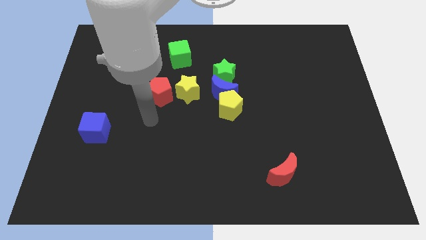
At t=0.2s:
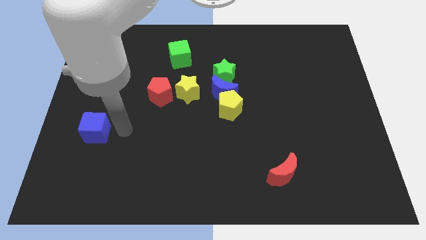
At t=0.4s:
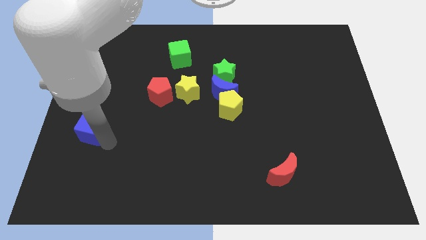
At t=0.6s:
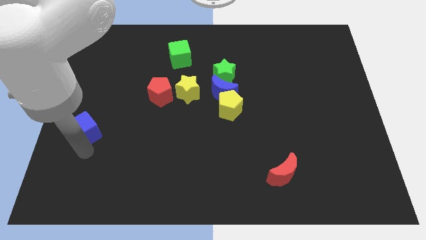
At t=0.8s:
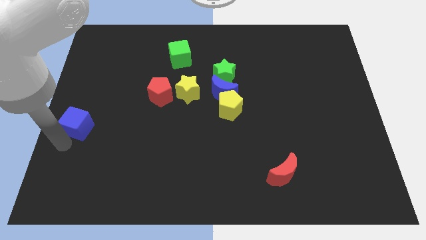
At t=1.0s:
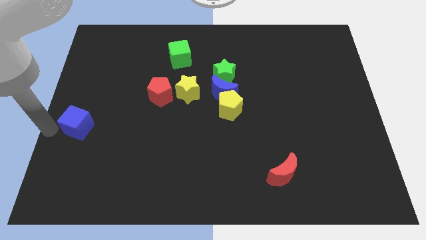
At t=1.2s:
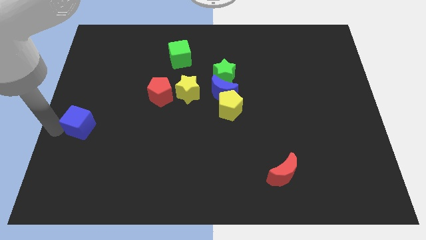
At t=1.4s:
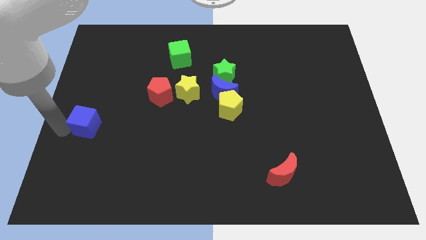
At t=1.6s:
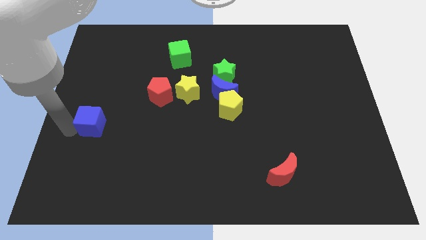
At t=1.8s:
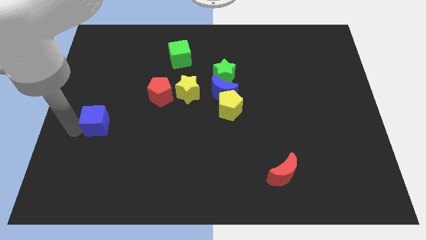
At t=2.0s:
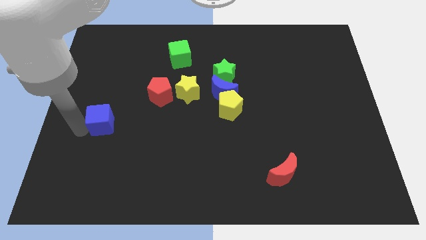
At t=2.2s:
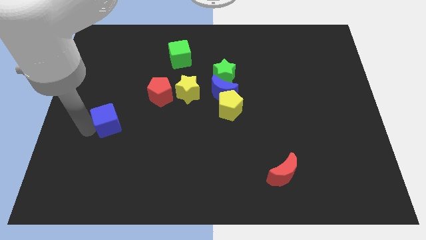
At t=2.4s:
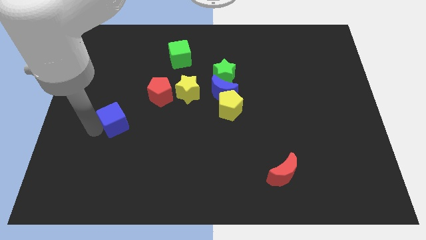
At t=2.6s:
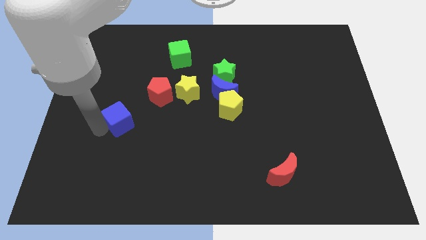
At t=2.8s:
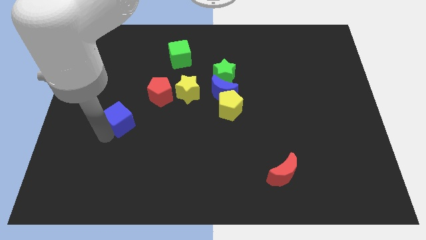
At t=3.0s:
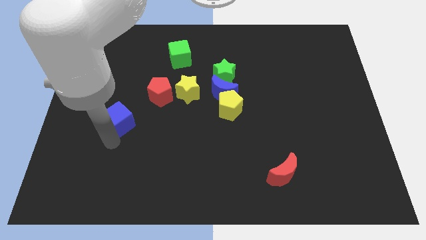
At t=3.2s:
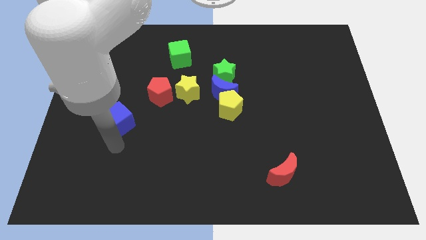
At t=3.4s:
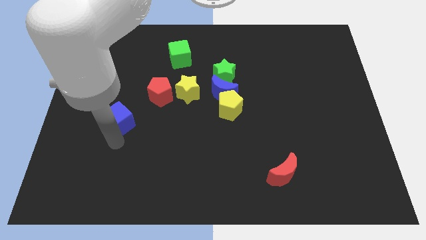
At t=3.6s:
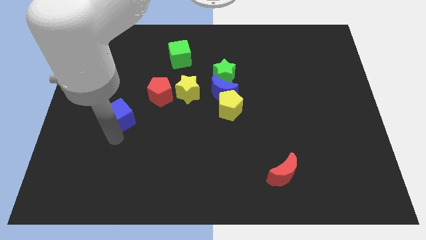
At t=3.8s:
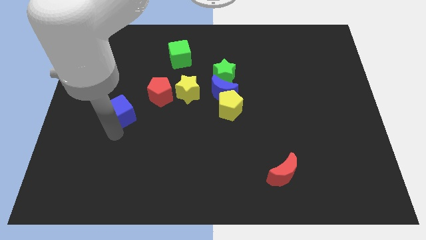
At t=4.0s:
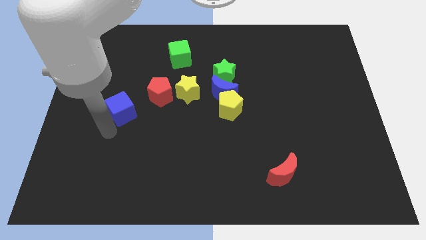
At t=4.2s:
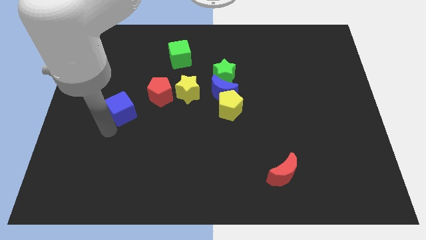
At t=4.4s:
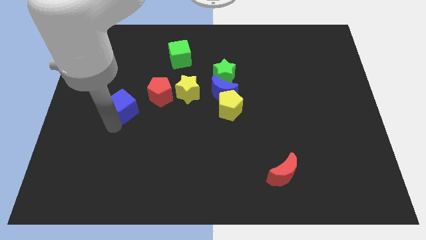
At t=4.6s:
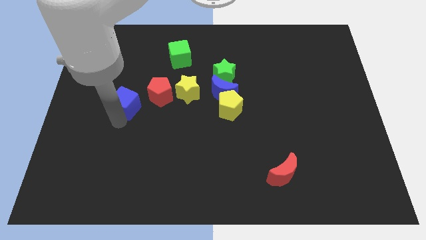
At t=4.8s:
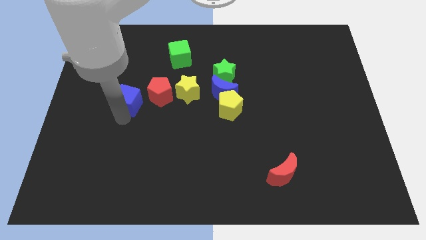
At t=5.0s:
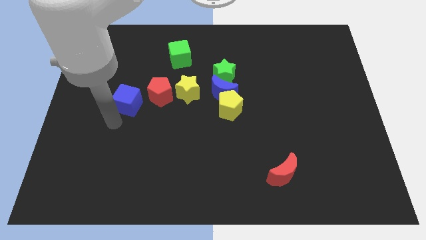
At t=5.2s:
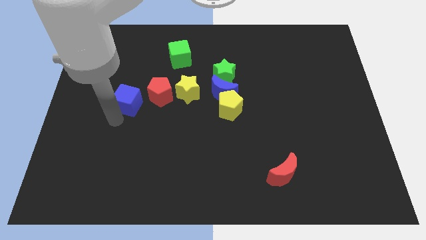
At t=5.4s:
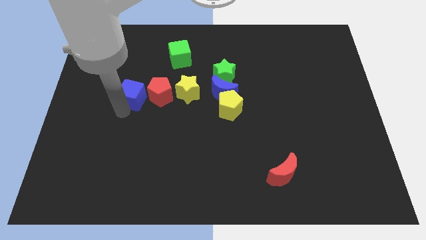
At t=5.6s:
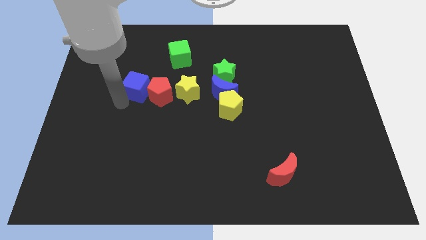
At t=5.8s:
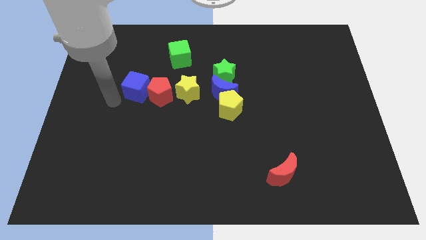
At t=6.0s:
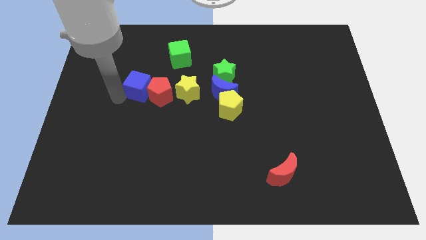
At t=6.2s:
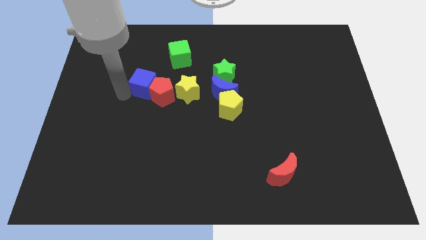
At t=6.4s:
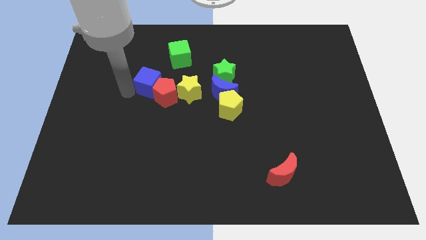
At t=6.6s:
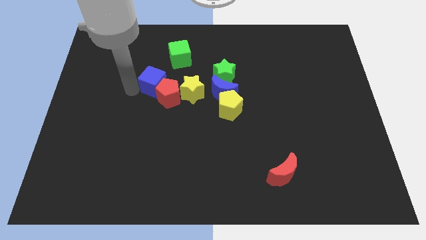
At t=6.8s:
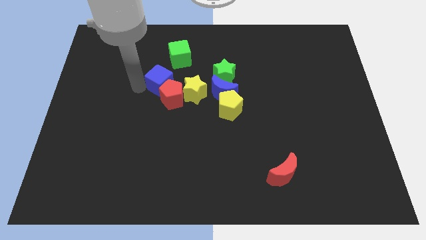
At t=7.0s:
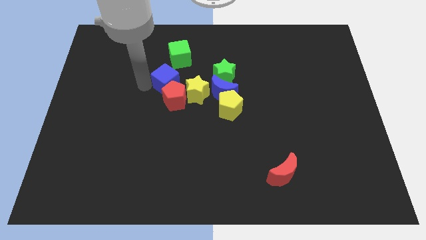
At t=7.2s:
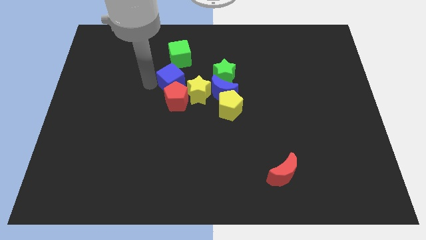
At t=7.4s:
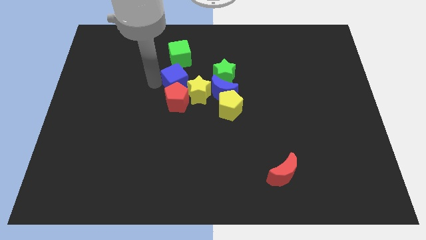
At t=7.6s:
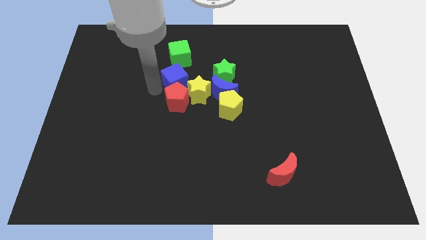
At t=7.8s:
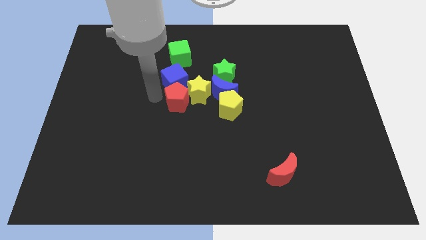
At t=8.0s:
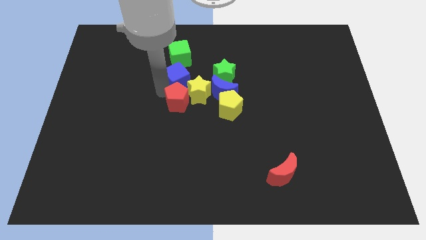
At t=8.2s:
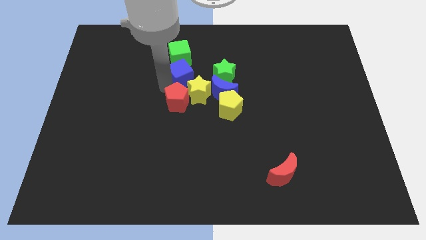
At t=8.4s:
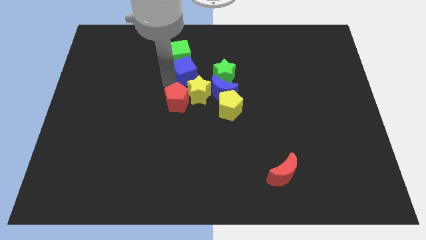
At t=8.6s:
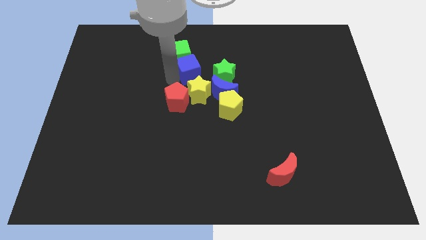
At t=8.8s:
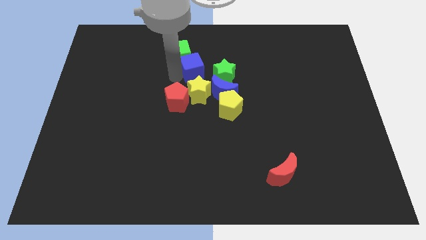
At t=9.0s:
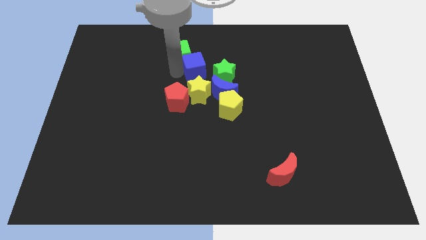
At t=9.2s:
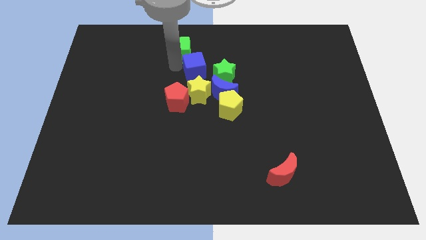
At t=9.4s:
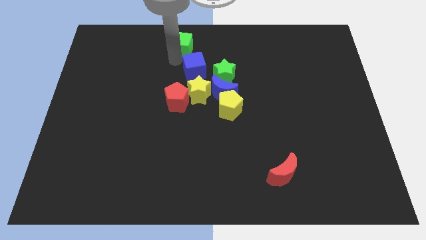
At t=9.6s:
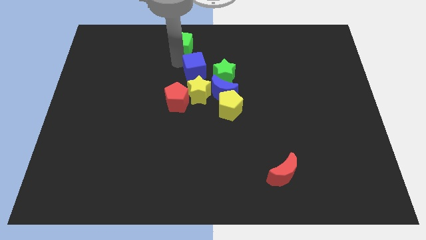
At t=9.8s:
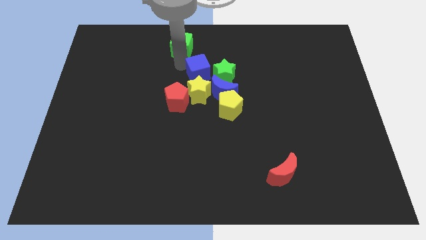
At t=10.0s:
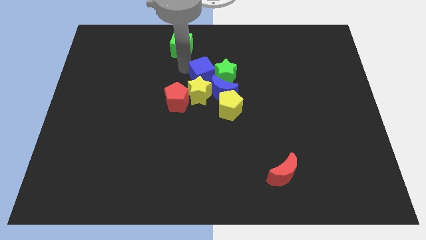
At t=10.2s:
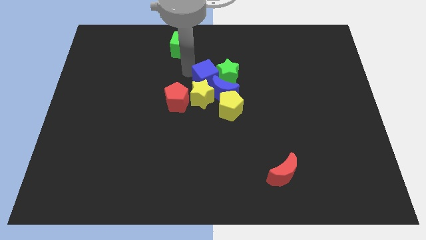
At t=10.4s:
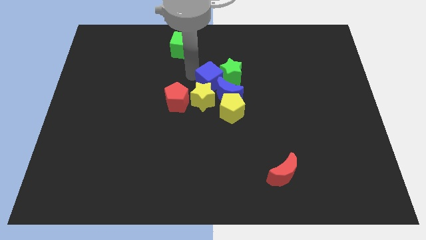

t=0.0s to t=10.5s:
slide the blue cube to the top of the yellow pentagon

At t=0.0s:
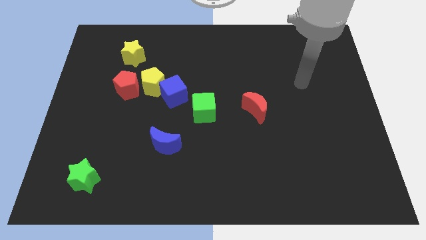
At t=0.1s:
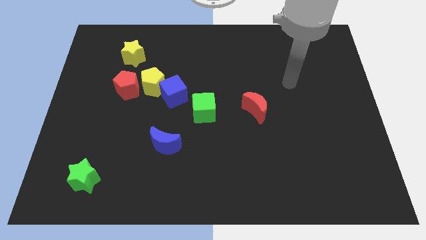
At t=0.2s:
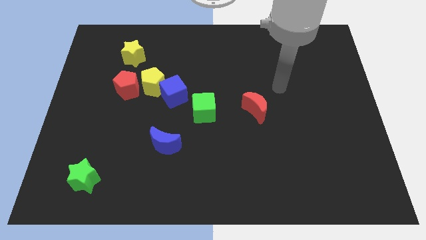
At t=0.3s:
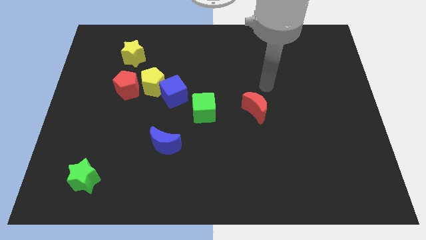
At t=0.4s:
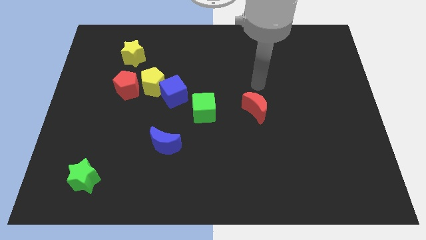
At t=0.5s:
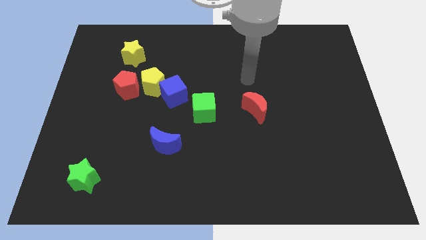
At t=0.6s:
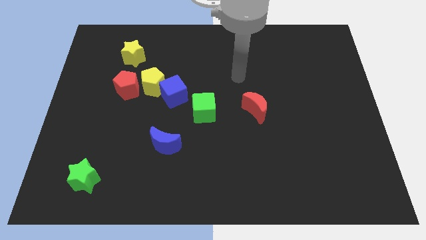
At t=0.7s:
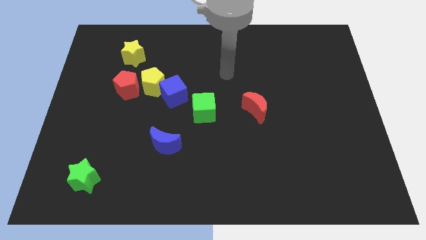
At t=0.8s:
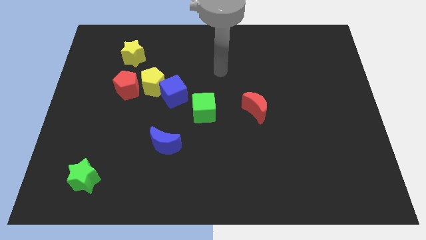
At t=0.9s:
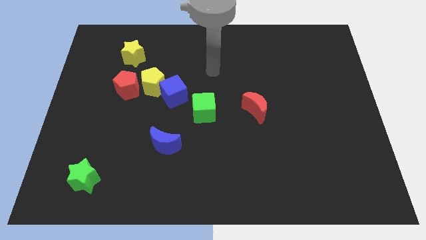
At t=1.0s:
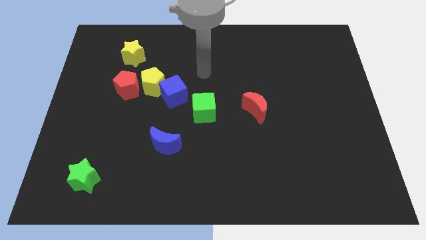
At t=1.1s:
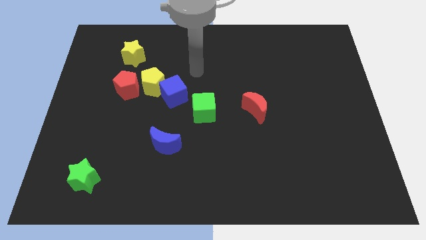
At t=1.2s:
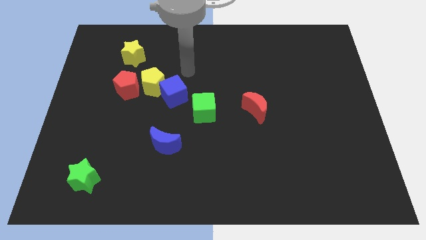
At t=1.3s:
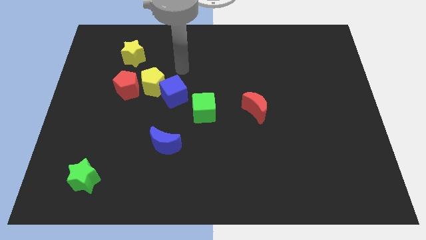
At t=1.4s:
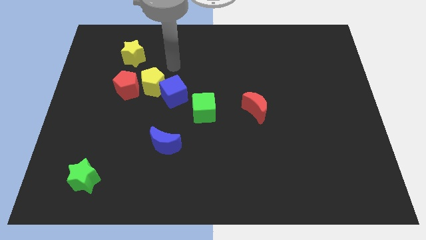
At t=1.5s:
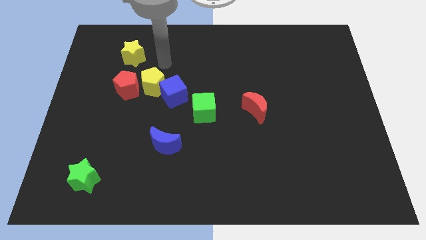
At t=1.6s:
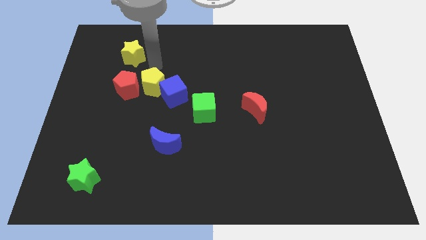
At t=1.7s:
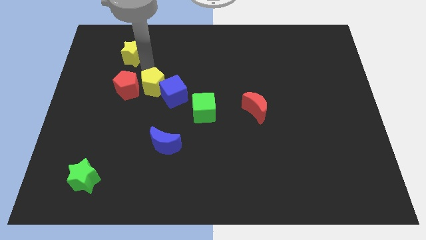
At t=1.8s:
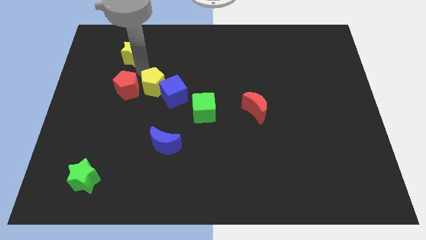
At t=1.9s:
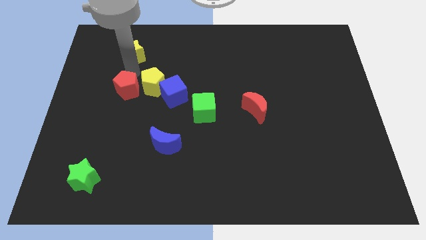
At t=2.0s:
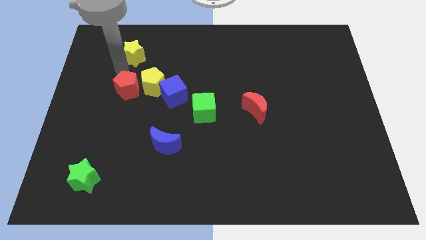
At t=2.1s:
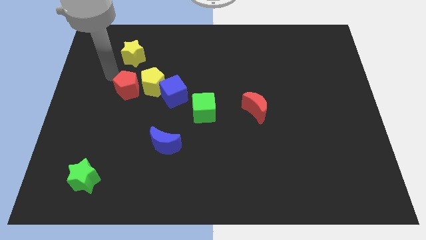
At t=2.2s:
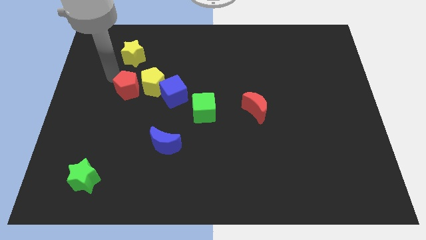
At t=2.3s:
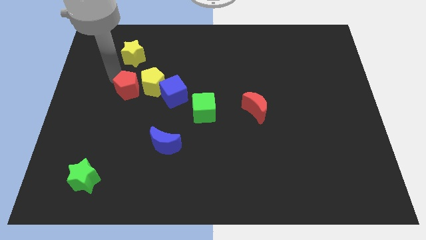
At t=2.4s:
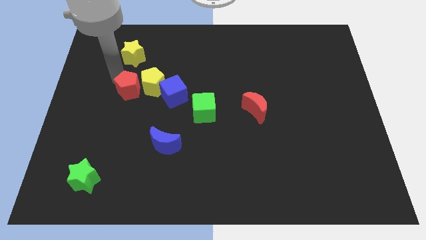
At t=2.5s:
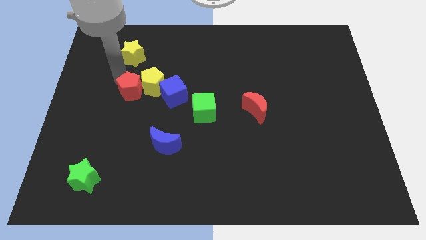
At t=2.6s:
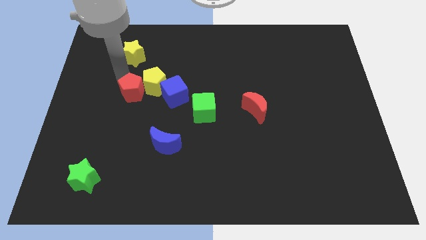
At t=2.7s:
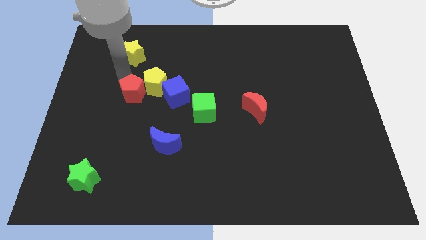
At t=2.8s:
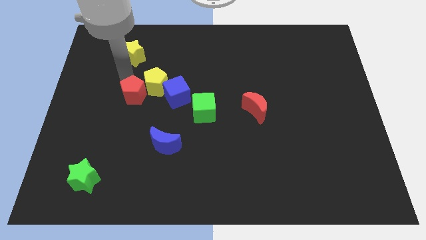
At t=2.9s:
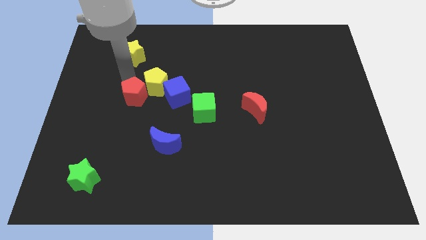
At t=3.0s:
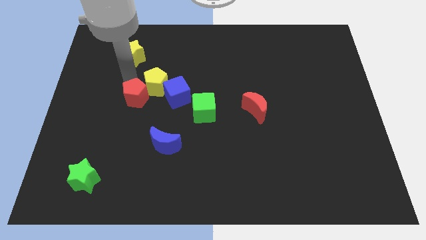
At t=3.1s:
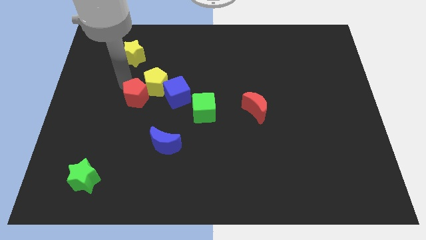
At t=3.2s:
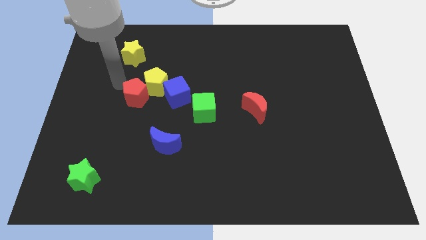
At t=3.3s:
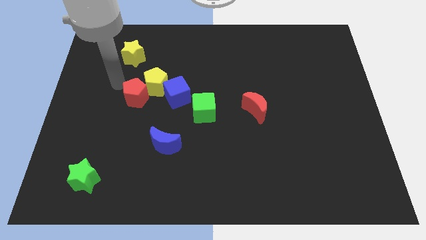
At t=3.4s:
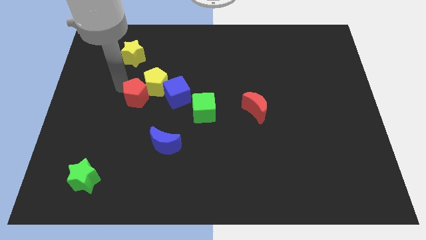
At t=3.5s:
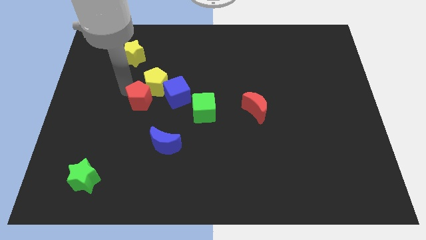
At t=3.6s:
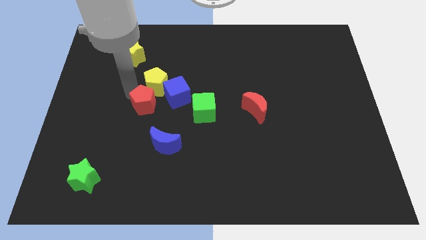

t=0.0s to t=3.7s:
put the red pentagon just left of the green cube
